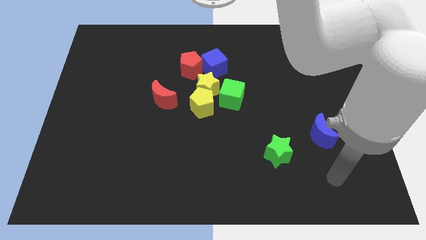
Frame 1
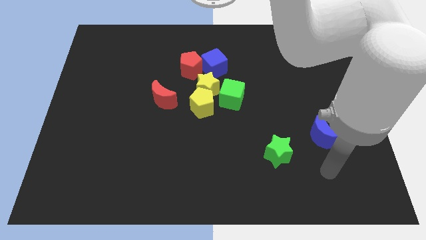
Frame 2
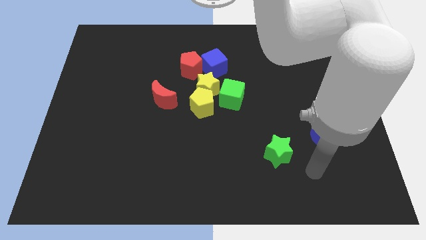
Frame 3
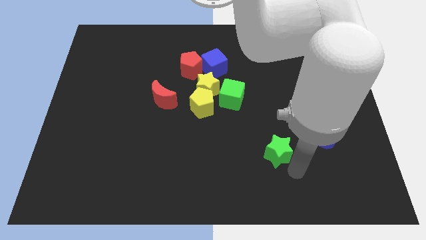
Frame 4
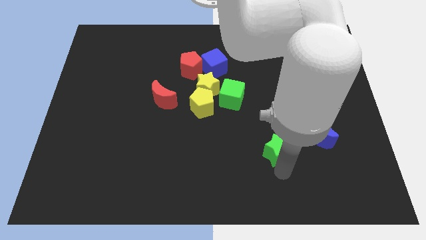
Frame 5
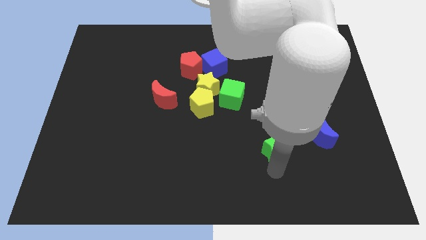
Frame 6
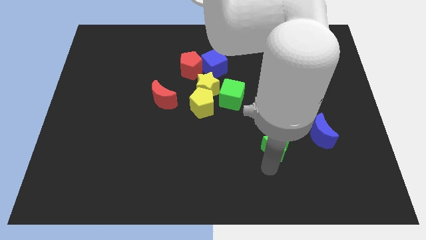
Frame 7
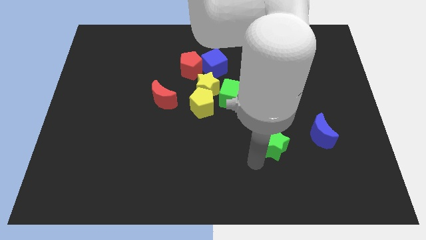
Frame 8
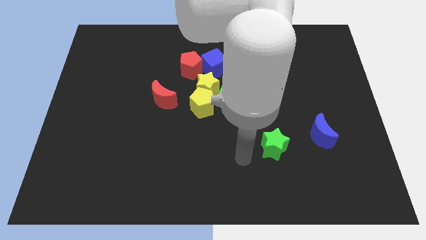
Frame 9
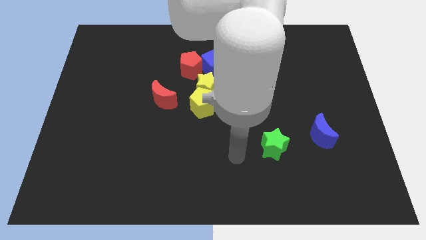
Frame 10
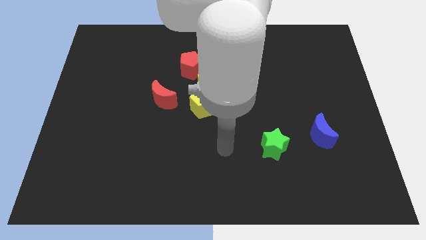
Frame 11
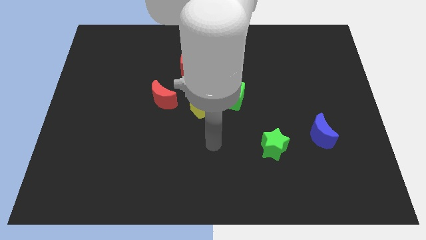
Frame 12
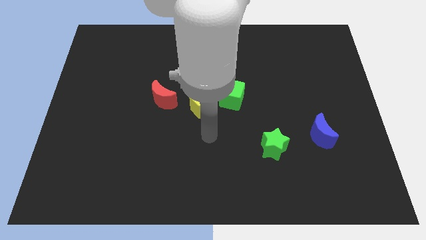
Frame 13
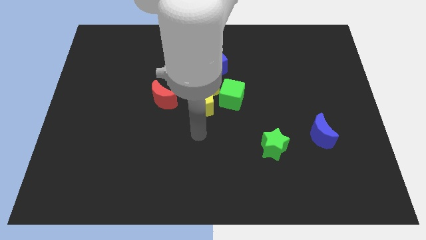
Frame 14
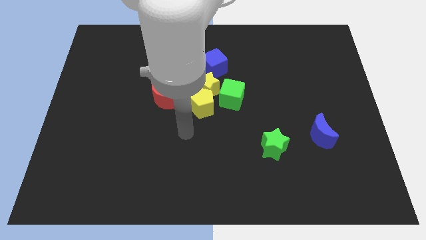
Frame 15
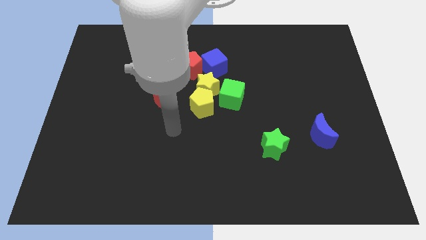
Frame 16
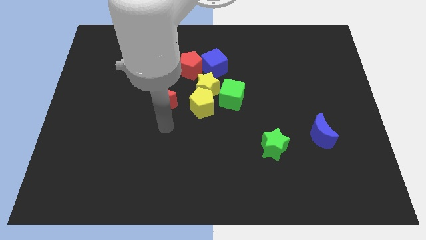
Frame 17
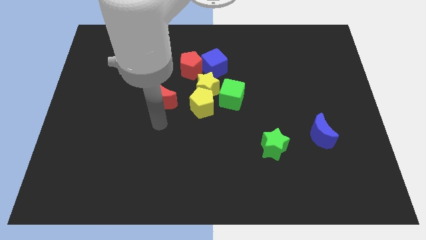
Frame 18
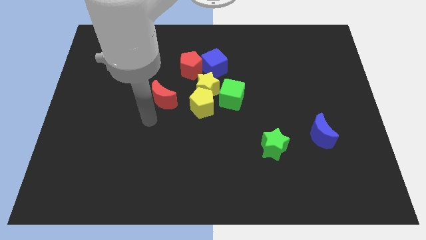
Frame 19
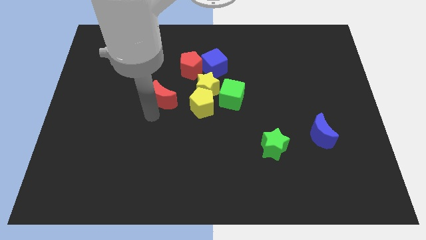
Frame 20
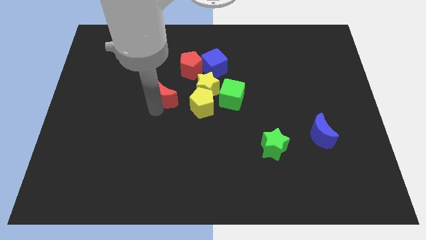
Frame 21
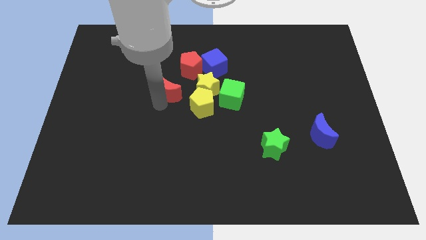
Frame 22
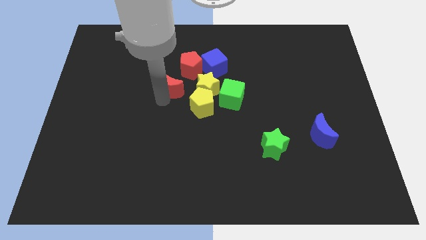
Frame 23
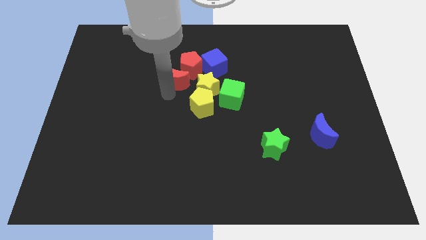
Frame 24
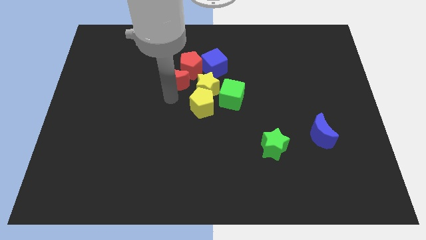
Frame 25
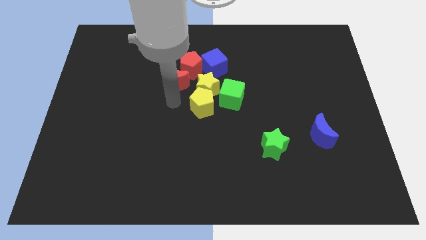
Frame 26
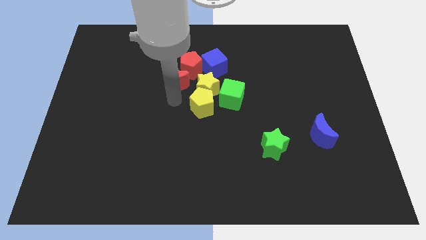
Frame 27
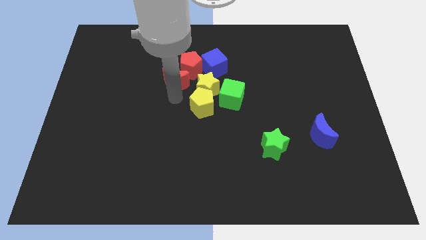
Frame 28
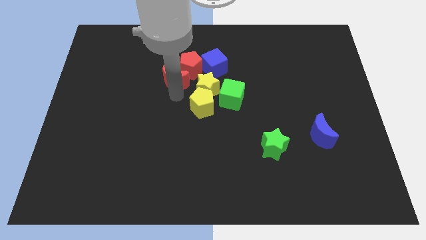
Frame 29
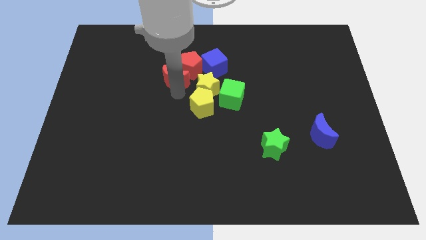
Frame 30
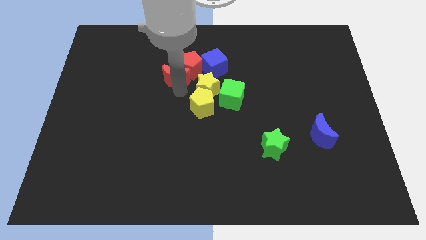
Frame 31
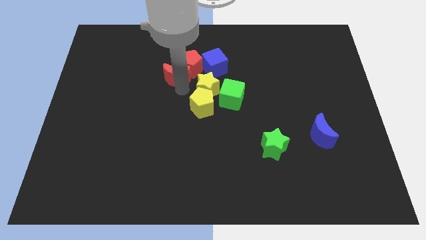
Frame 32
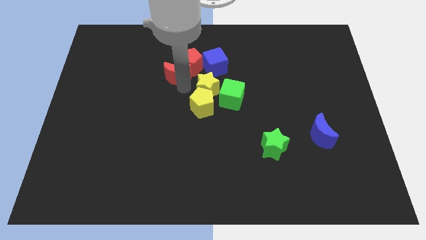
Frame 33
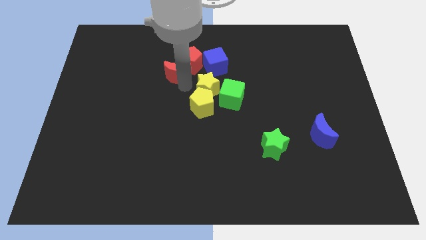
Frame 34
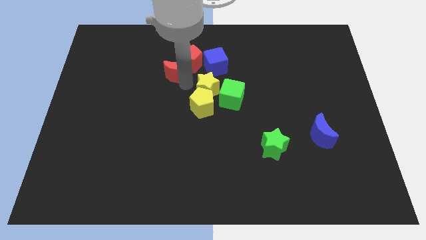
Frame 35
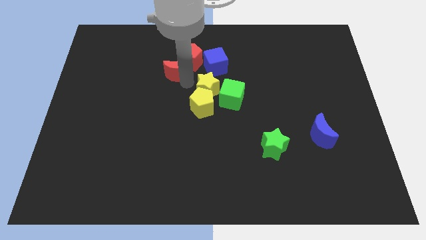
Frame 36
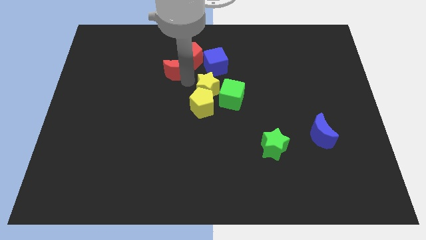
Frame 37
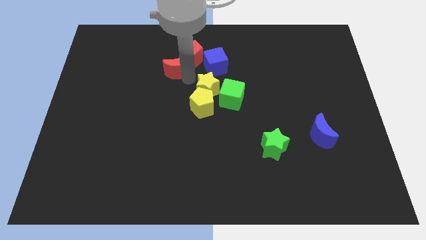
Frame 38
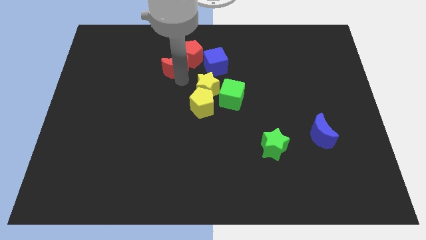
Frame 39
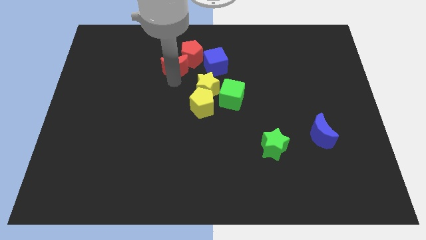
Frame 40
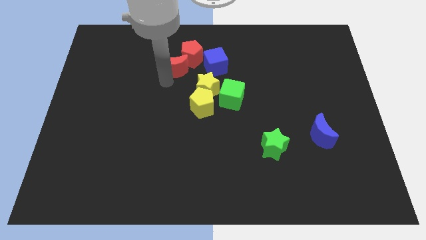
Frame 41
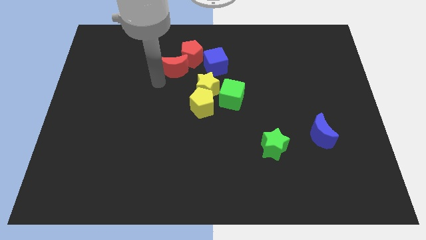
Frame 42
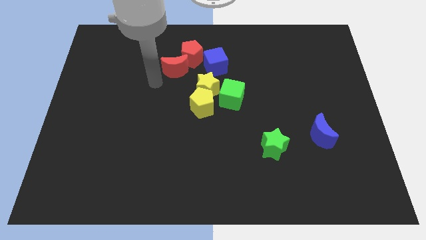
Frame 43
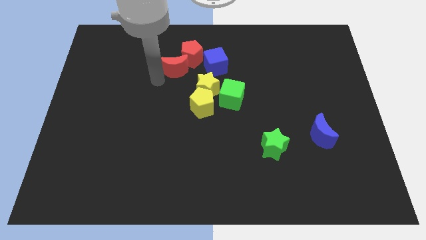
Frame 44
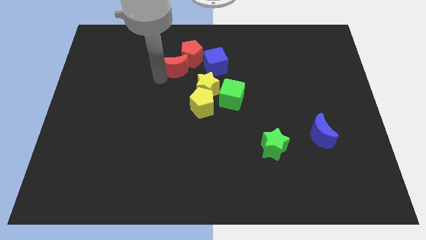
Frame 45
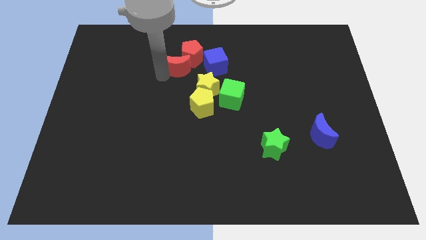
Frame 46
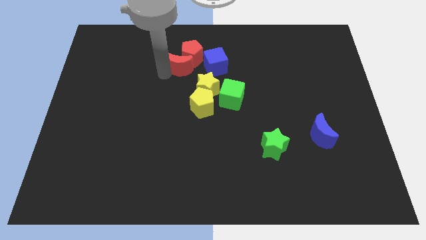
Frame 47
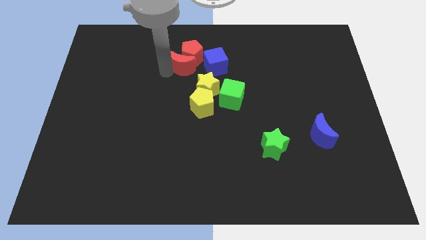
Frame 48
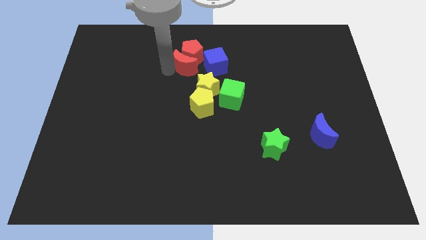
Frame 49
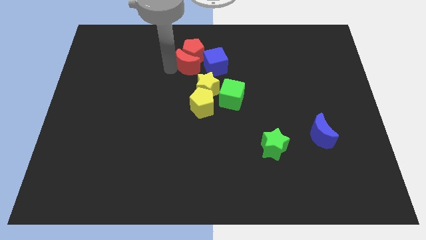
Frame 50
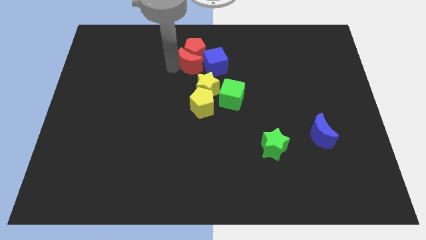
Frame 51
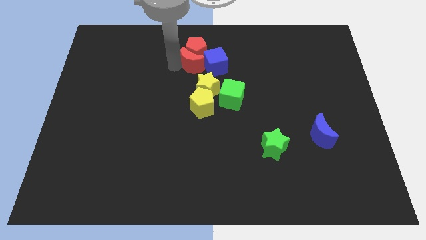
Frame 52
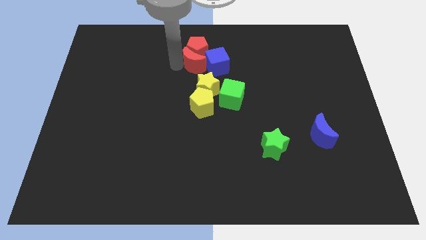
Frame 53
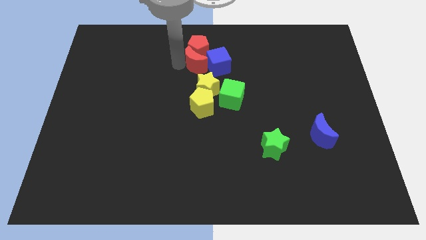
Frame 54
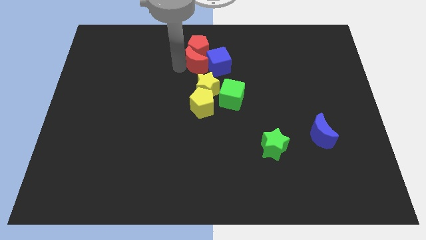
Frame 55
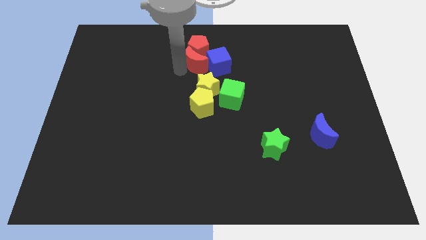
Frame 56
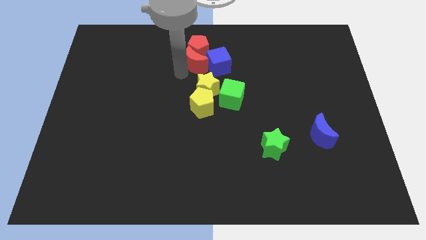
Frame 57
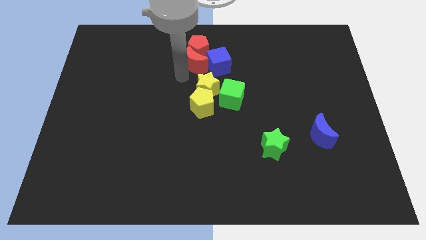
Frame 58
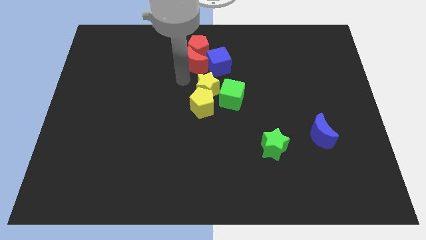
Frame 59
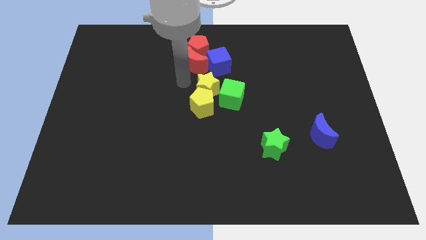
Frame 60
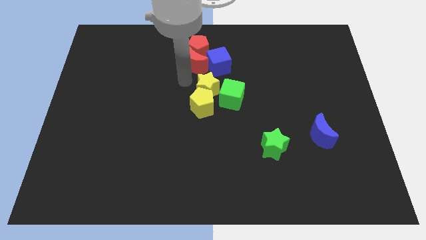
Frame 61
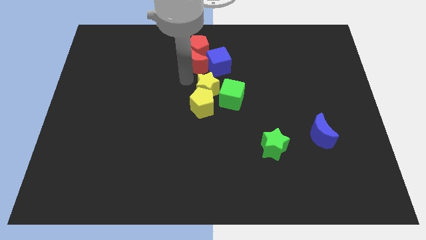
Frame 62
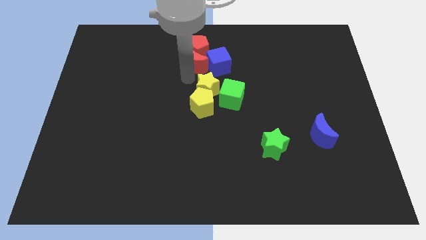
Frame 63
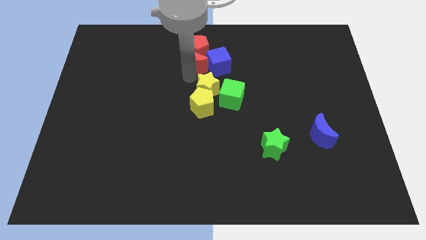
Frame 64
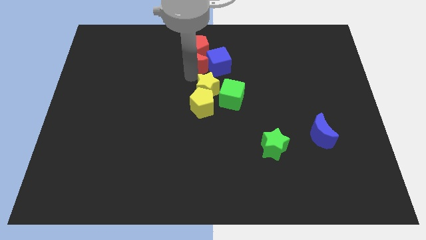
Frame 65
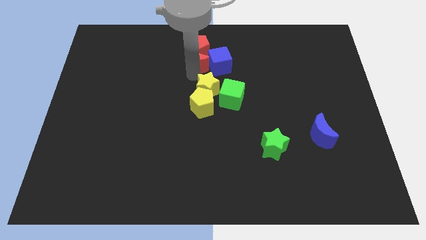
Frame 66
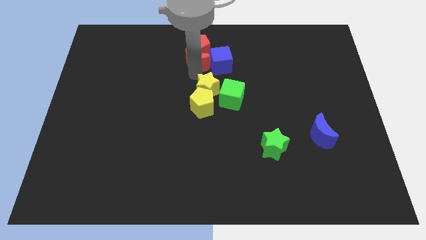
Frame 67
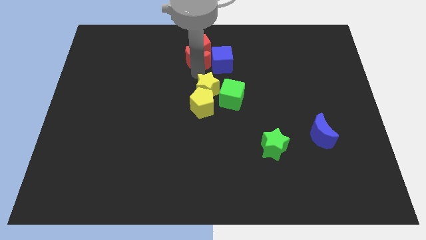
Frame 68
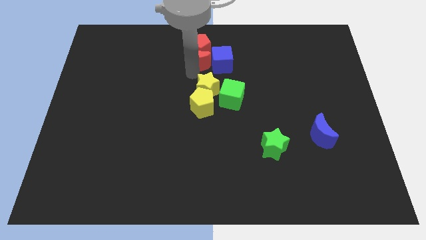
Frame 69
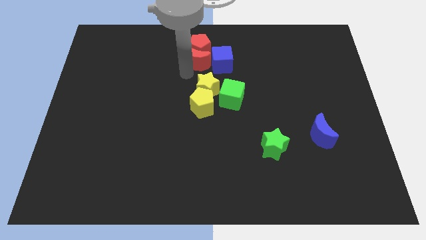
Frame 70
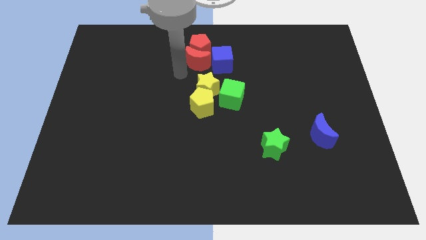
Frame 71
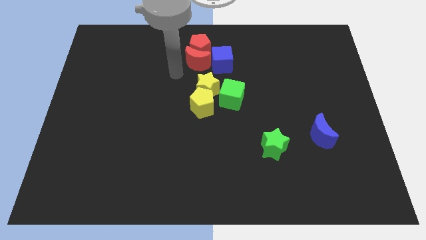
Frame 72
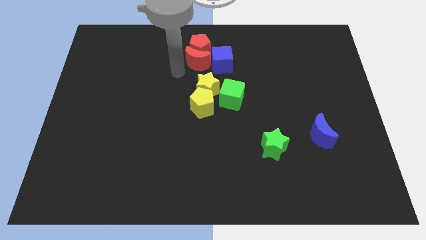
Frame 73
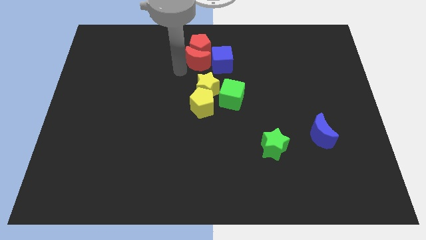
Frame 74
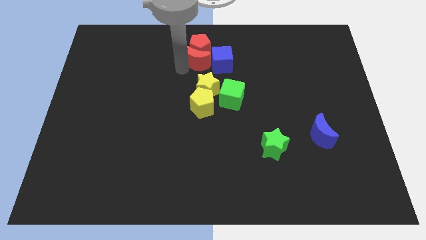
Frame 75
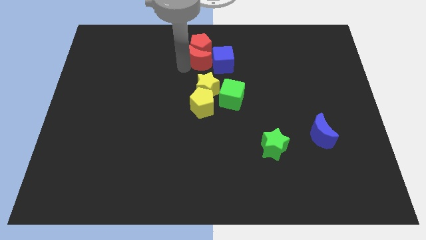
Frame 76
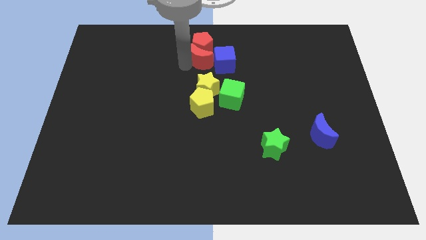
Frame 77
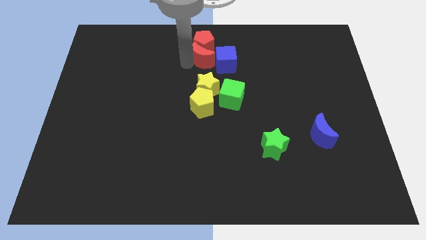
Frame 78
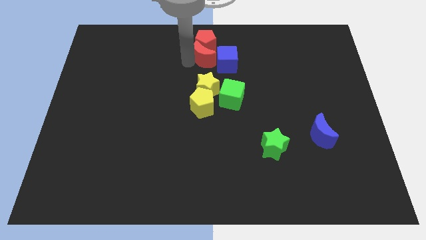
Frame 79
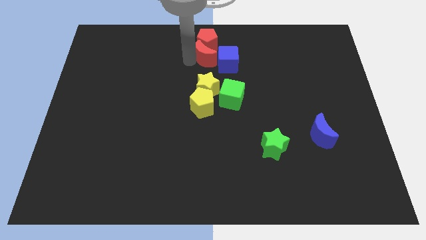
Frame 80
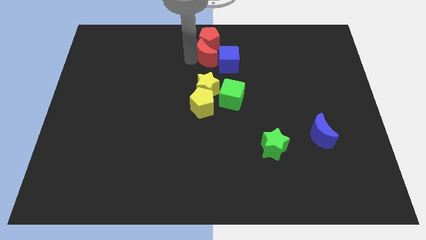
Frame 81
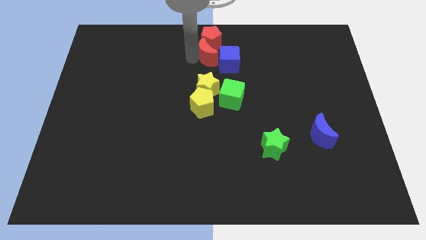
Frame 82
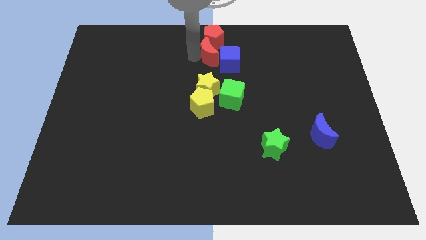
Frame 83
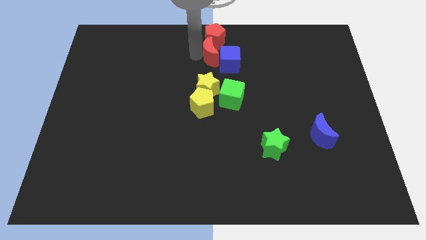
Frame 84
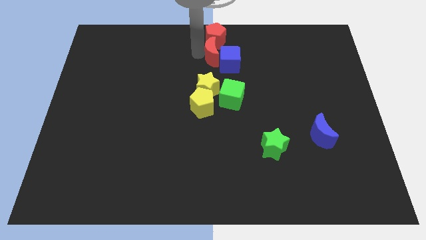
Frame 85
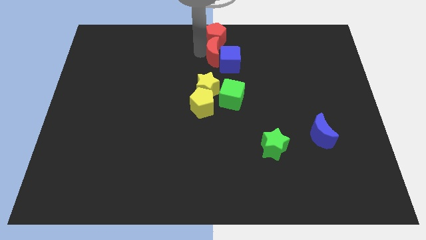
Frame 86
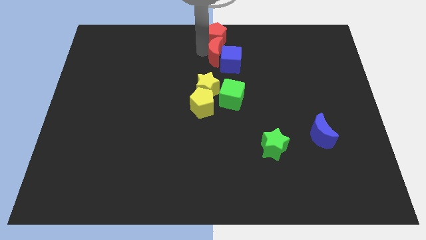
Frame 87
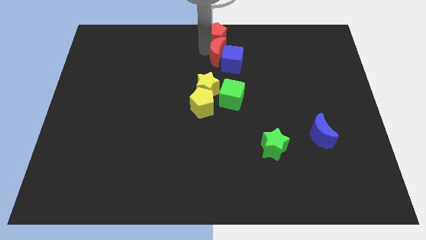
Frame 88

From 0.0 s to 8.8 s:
move the red moon to the top side of the green cube
